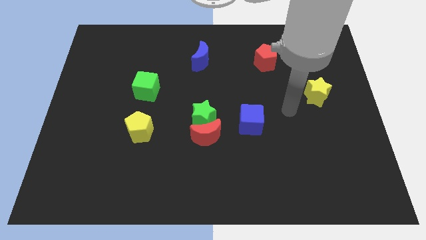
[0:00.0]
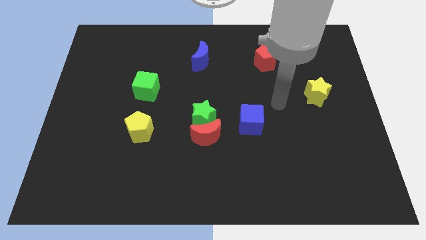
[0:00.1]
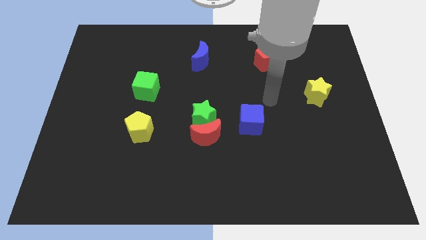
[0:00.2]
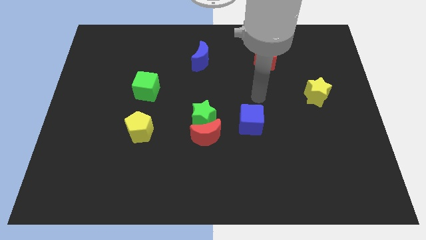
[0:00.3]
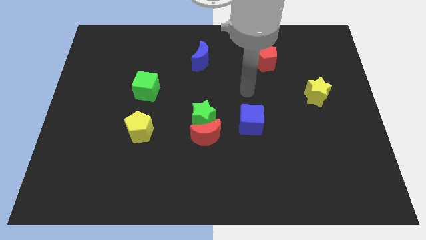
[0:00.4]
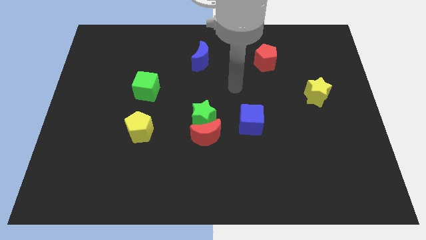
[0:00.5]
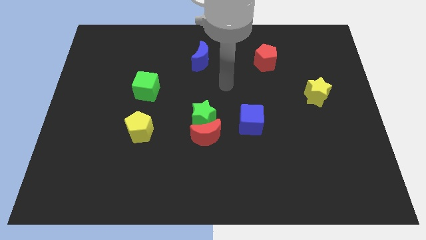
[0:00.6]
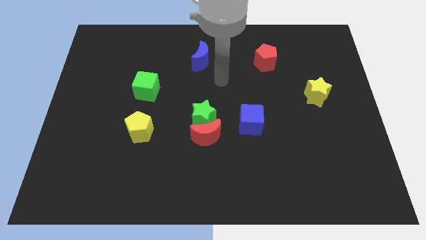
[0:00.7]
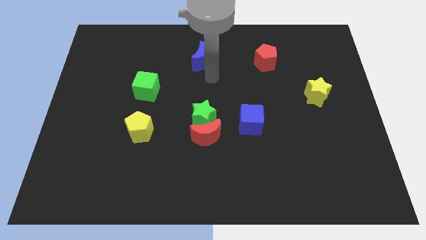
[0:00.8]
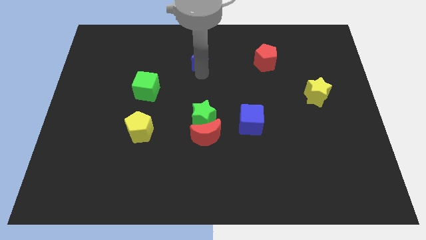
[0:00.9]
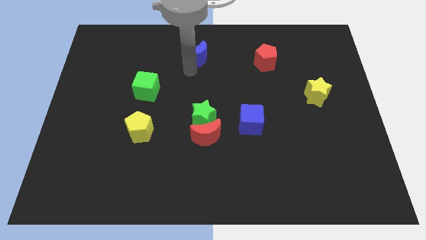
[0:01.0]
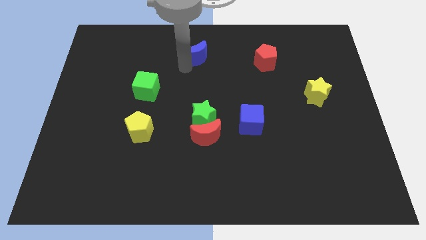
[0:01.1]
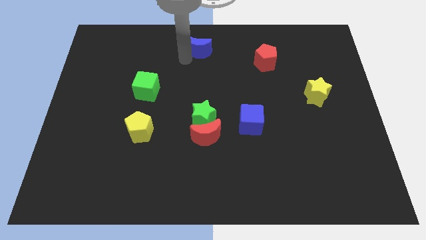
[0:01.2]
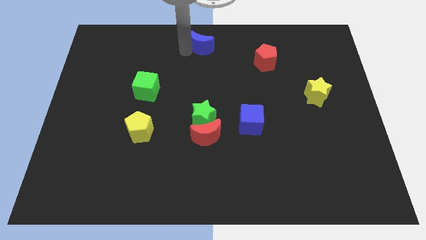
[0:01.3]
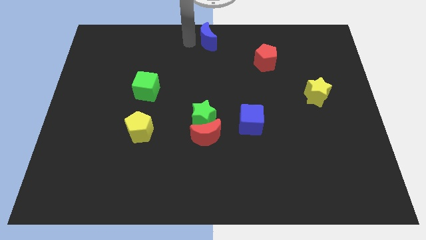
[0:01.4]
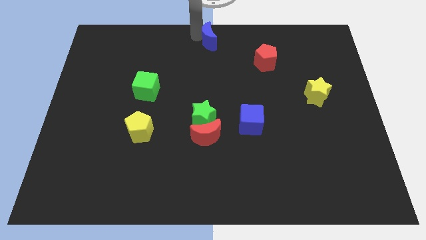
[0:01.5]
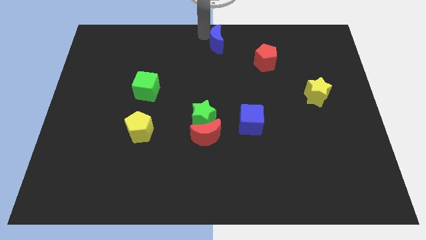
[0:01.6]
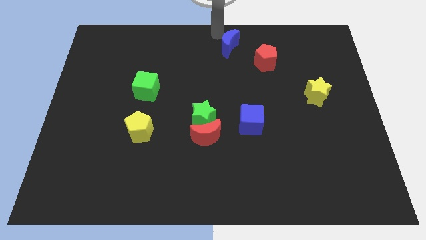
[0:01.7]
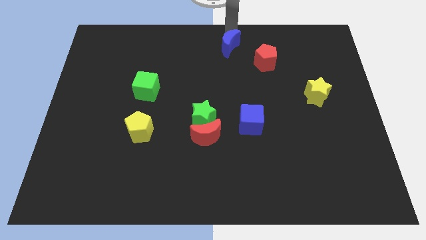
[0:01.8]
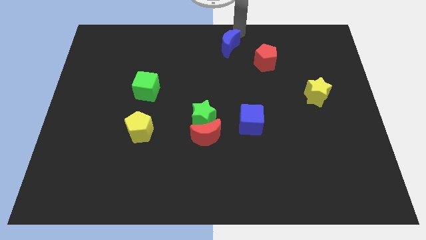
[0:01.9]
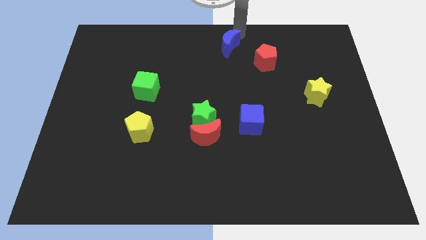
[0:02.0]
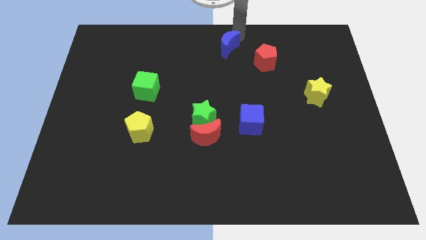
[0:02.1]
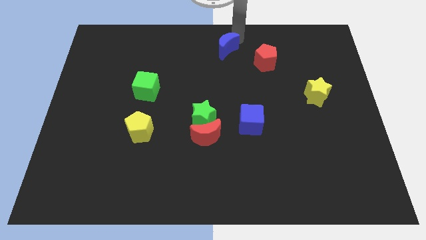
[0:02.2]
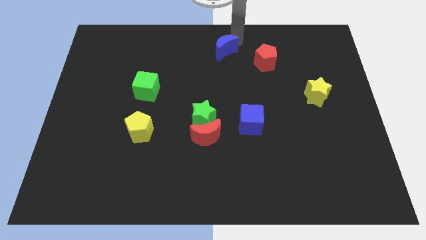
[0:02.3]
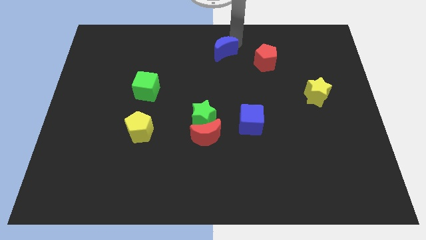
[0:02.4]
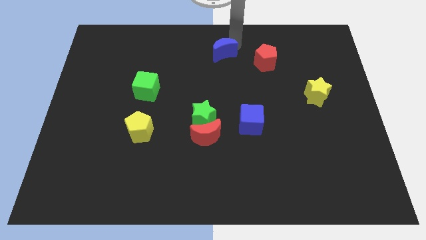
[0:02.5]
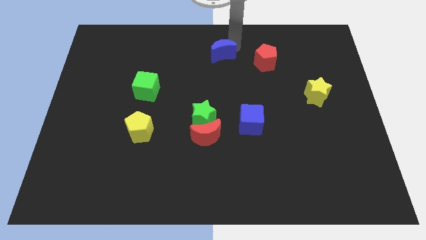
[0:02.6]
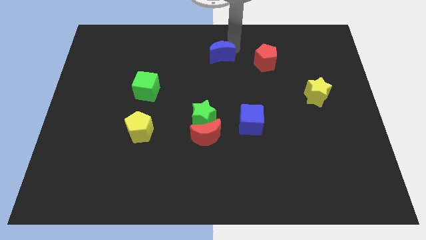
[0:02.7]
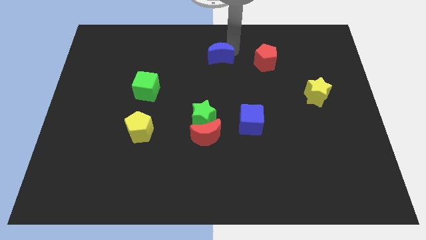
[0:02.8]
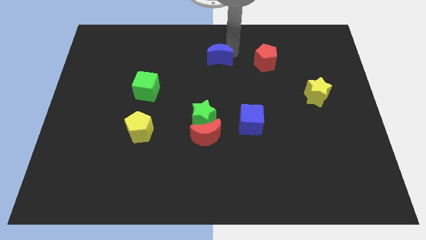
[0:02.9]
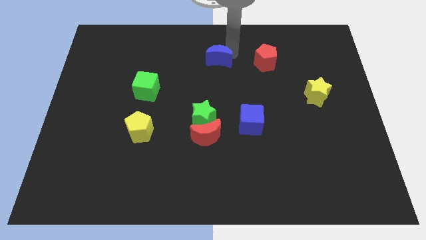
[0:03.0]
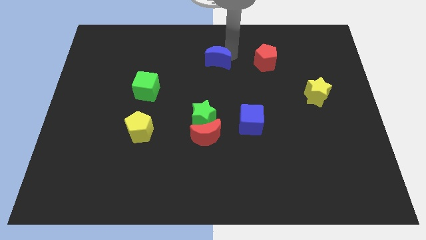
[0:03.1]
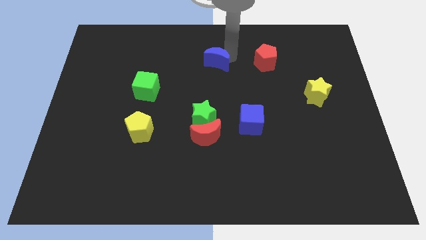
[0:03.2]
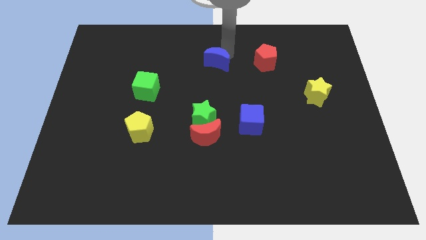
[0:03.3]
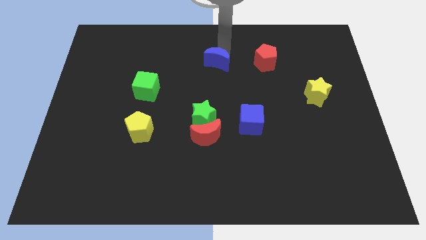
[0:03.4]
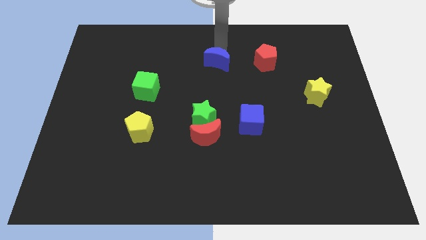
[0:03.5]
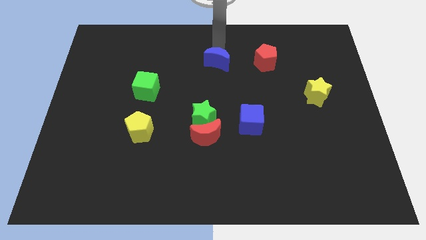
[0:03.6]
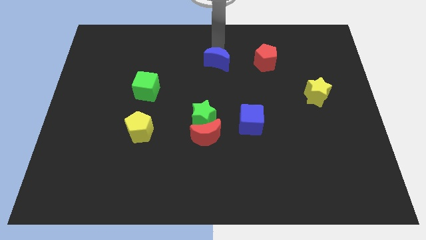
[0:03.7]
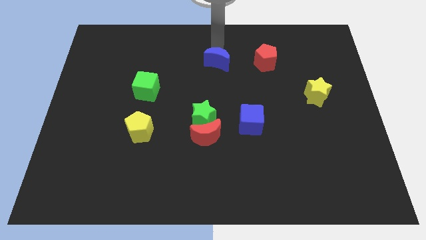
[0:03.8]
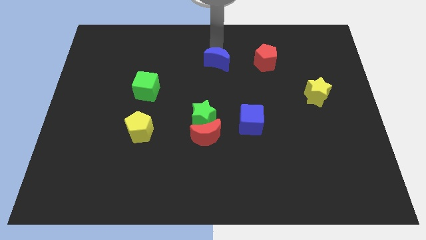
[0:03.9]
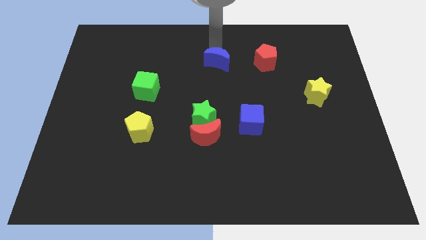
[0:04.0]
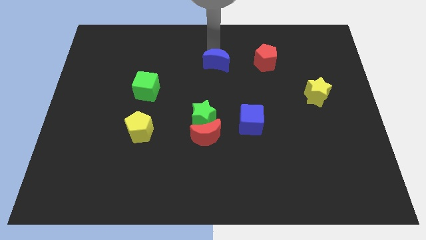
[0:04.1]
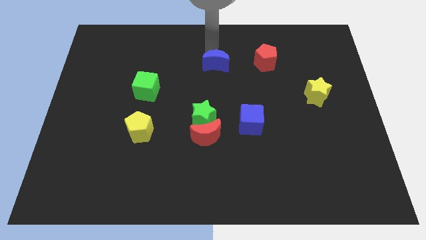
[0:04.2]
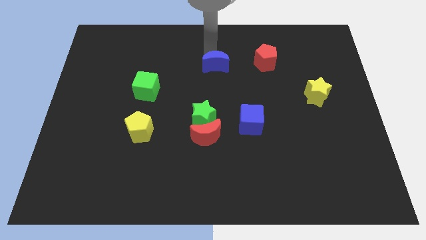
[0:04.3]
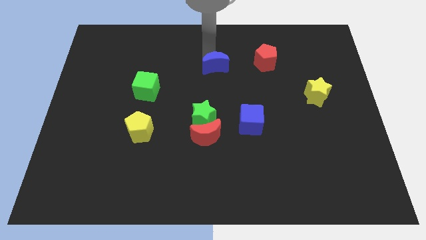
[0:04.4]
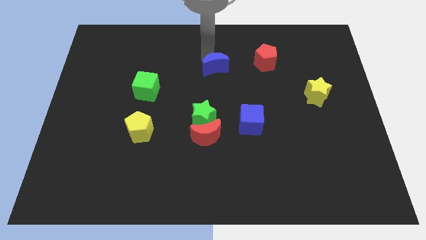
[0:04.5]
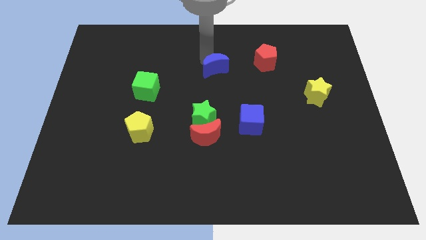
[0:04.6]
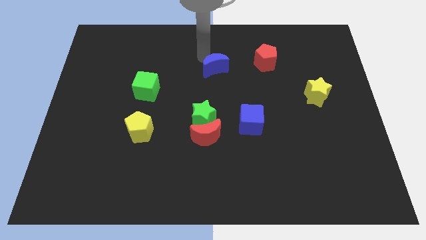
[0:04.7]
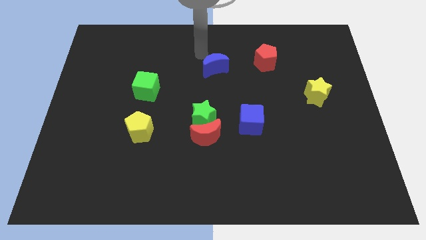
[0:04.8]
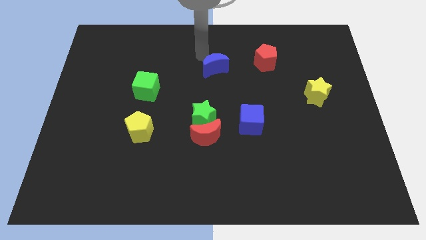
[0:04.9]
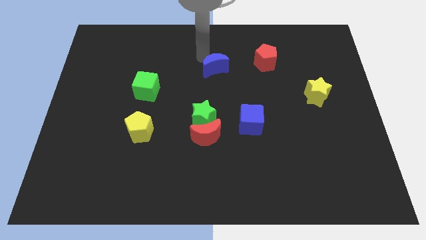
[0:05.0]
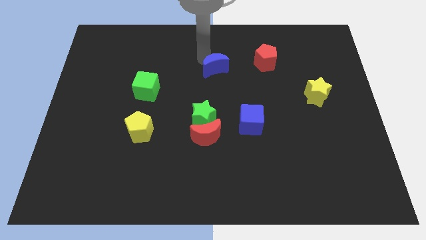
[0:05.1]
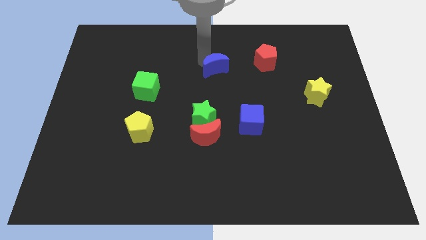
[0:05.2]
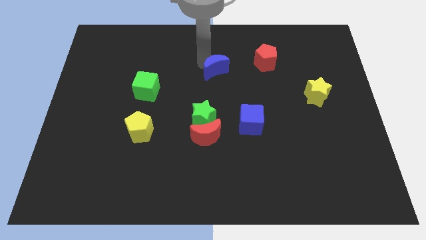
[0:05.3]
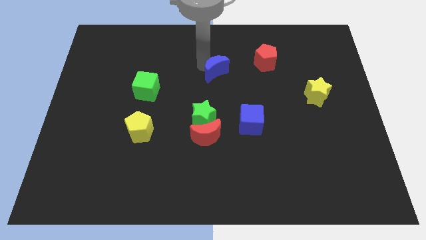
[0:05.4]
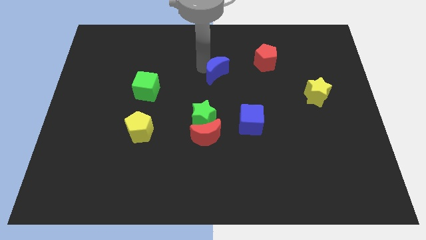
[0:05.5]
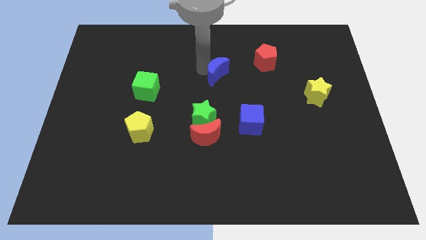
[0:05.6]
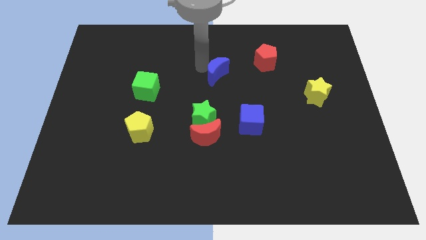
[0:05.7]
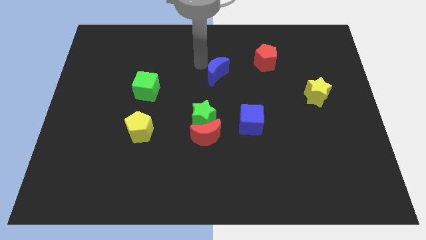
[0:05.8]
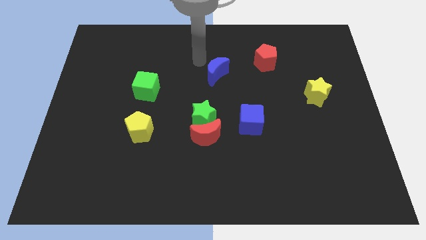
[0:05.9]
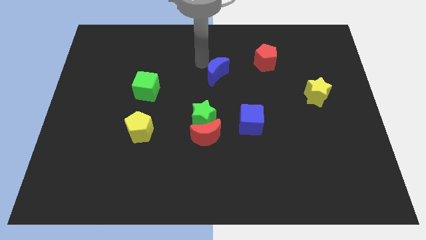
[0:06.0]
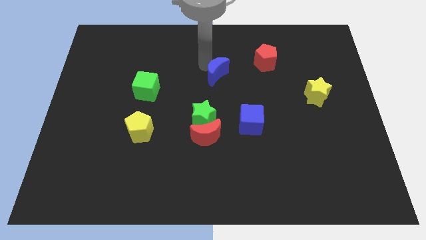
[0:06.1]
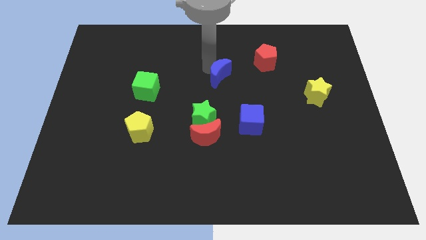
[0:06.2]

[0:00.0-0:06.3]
push the blue moon a bit downwards and then right

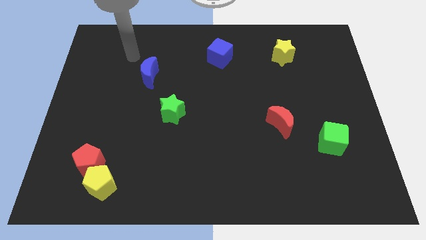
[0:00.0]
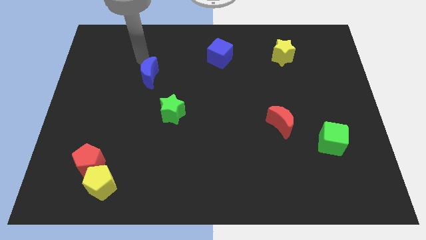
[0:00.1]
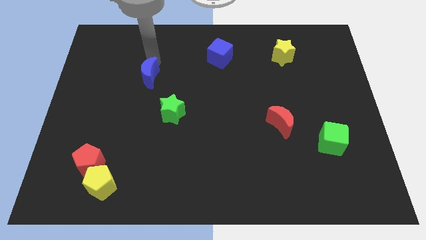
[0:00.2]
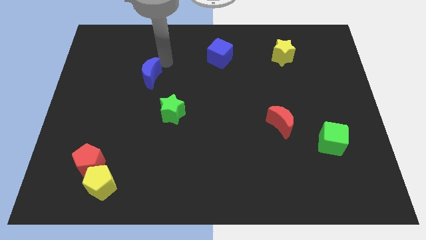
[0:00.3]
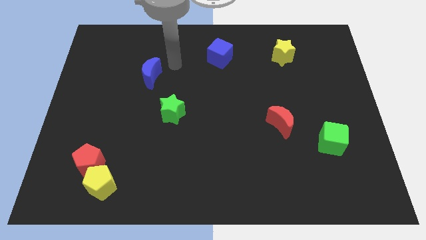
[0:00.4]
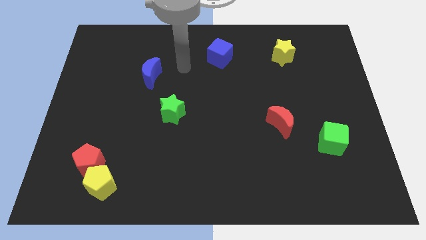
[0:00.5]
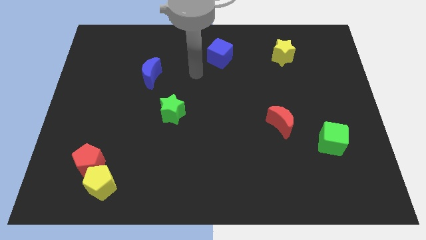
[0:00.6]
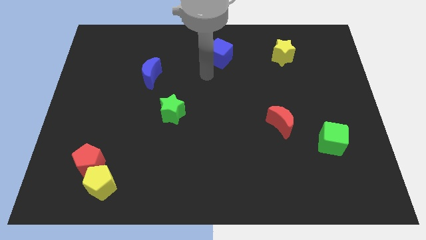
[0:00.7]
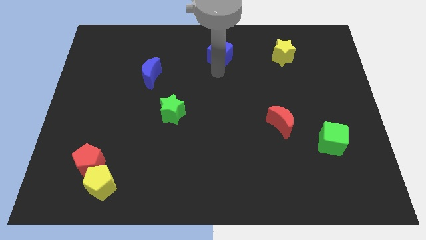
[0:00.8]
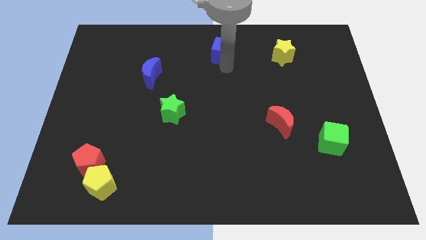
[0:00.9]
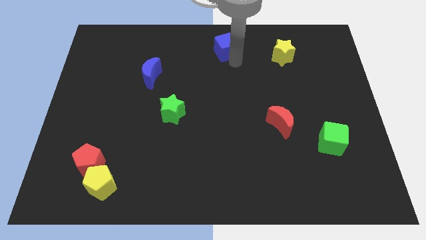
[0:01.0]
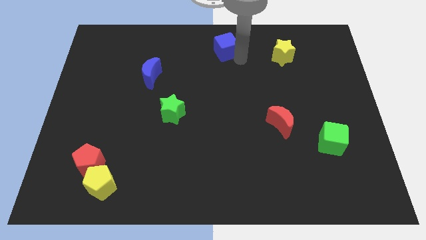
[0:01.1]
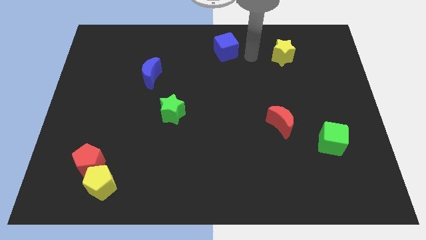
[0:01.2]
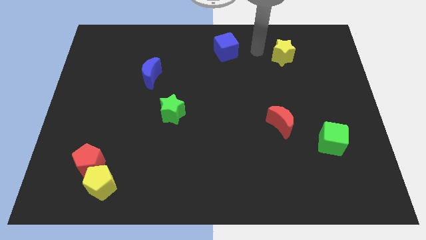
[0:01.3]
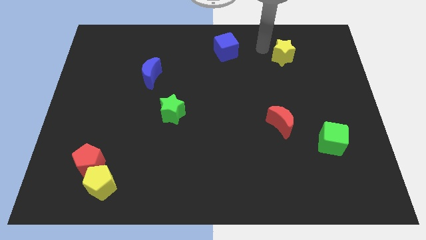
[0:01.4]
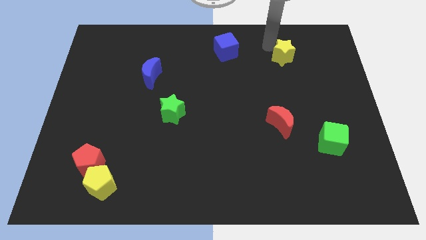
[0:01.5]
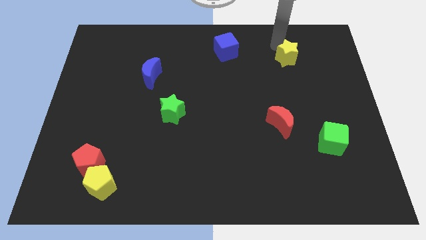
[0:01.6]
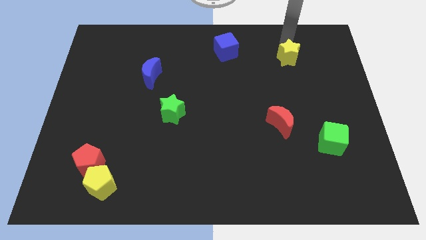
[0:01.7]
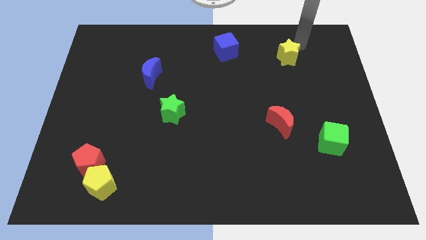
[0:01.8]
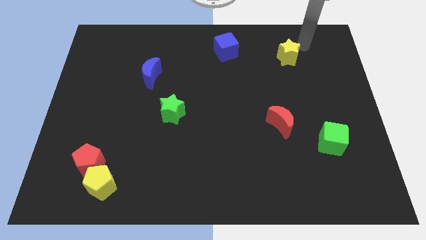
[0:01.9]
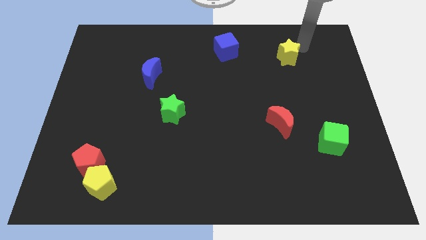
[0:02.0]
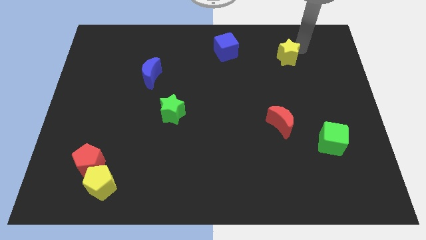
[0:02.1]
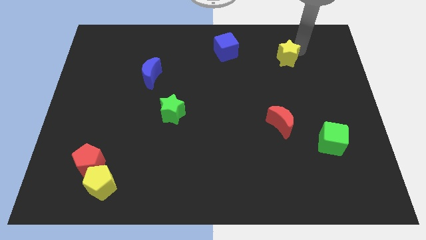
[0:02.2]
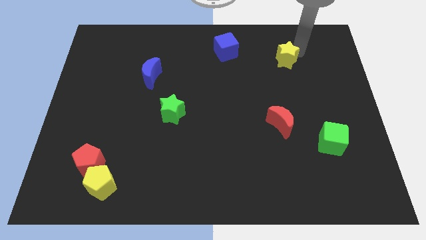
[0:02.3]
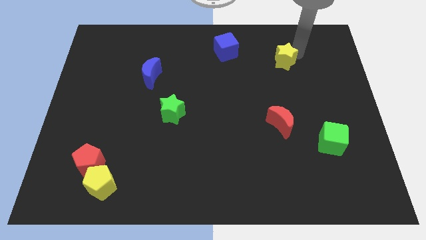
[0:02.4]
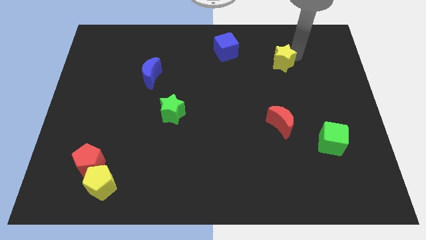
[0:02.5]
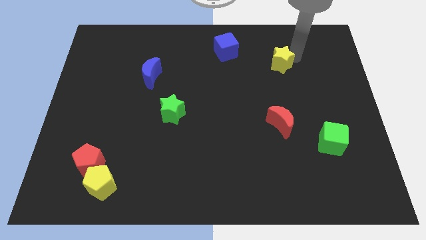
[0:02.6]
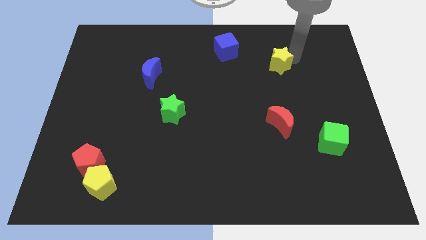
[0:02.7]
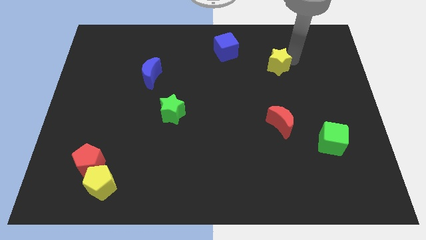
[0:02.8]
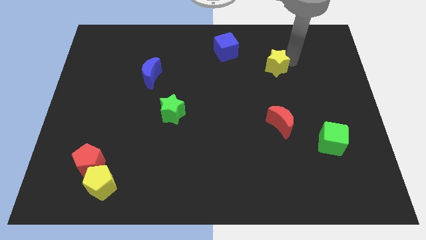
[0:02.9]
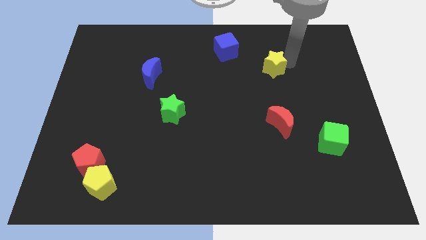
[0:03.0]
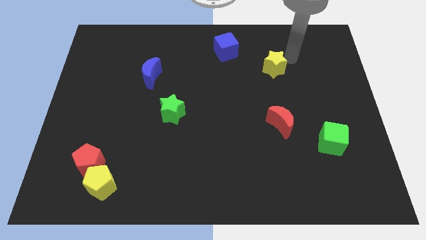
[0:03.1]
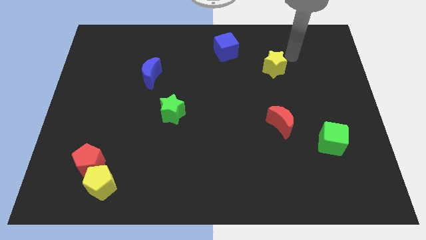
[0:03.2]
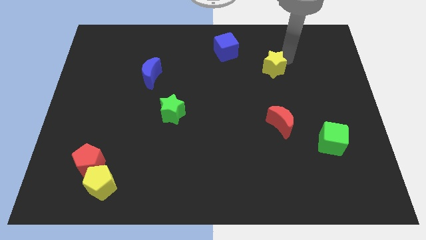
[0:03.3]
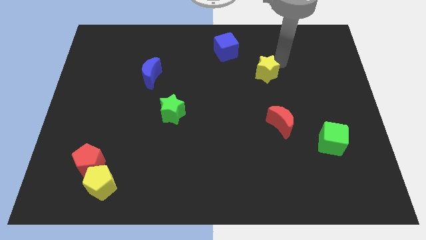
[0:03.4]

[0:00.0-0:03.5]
slightly move the yellow star downwards and then left
